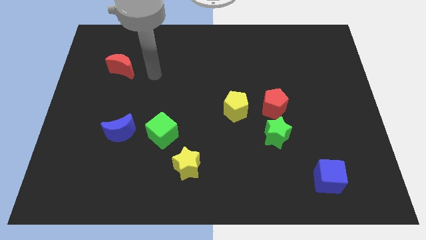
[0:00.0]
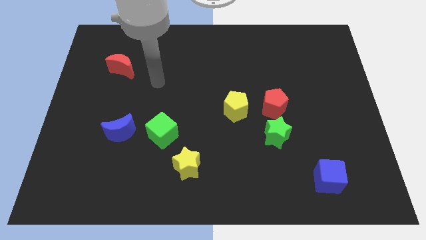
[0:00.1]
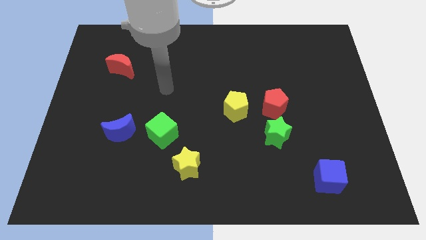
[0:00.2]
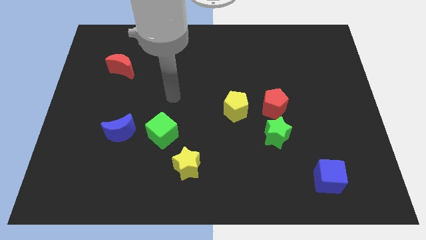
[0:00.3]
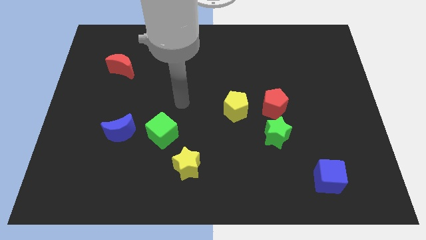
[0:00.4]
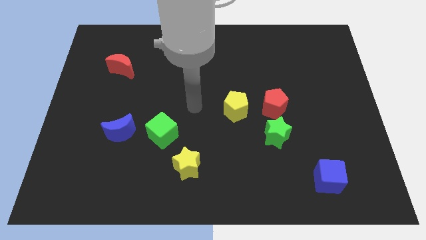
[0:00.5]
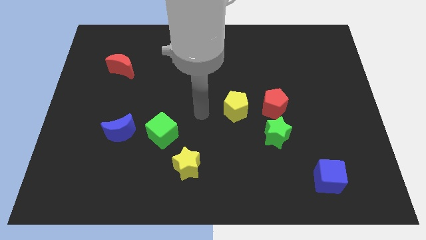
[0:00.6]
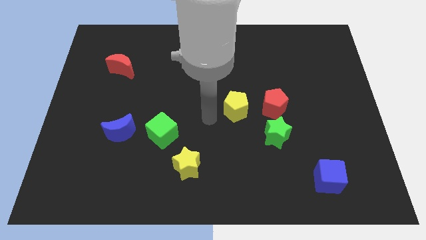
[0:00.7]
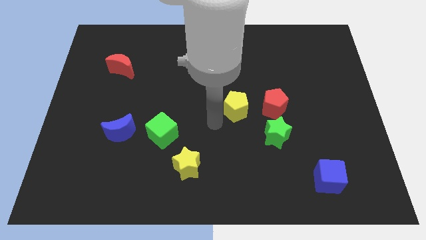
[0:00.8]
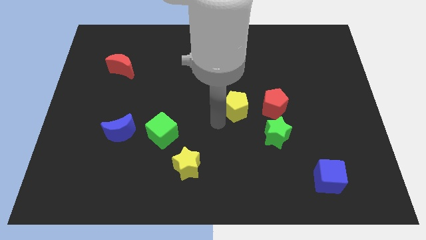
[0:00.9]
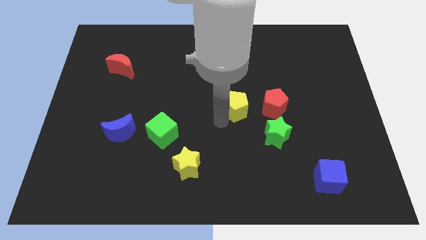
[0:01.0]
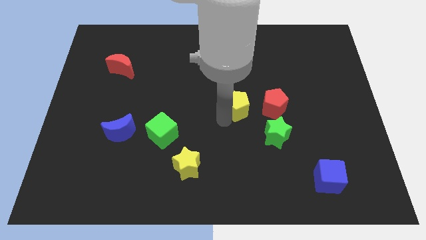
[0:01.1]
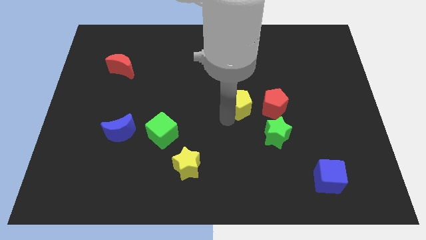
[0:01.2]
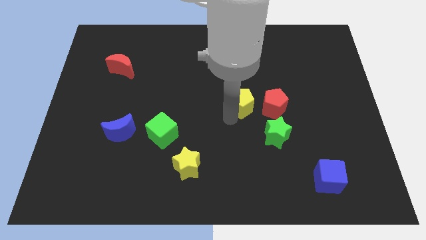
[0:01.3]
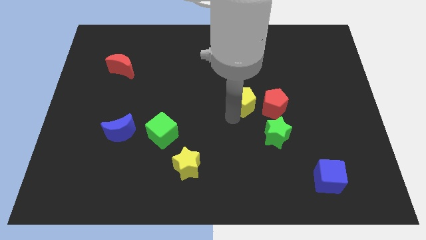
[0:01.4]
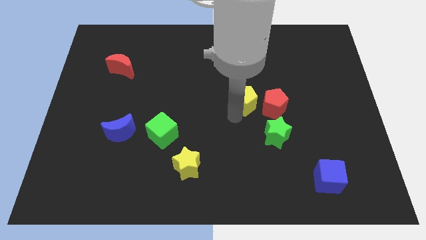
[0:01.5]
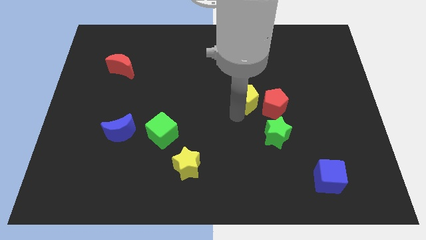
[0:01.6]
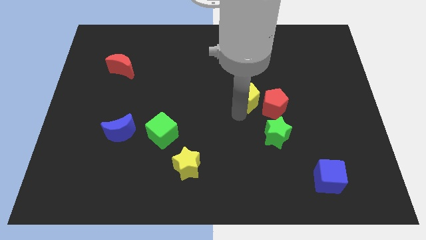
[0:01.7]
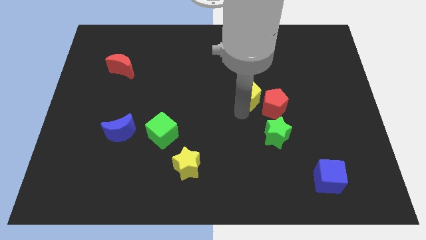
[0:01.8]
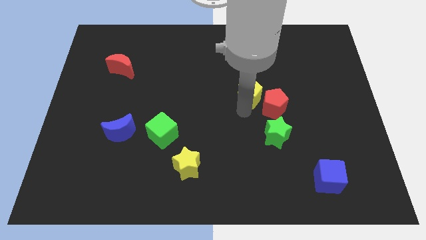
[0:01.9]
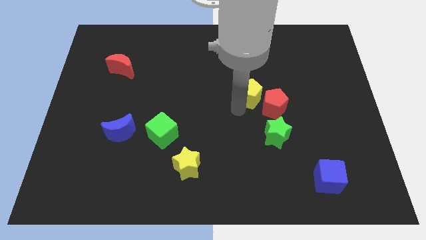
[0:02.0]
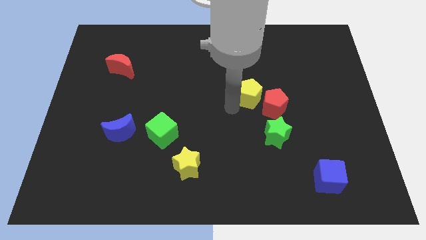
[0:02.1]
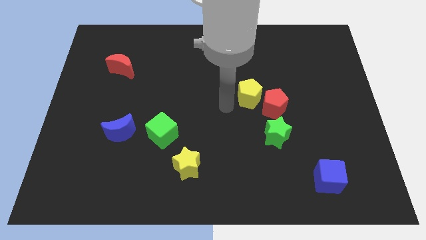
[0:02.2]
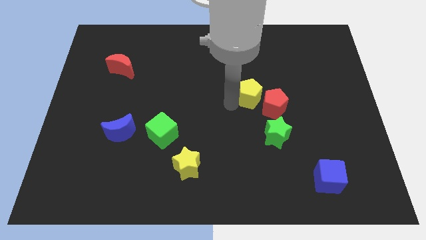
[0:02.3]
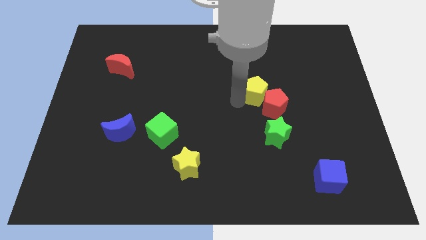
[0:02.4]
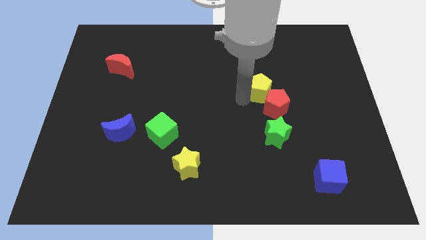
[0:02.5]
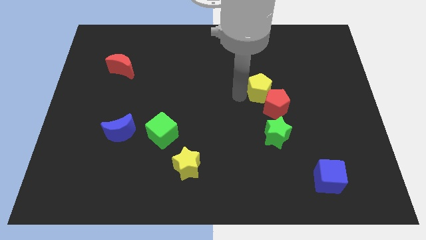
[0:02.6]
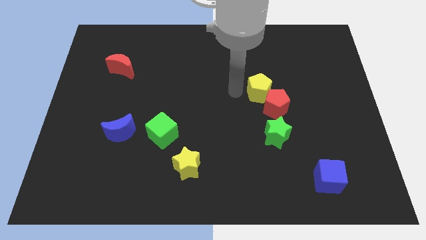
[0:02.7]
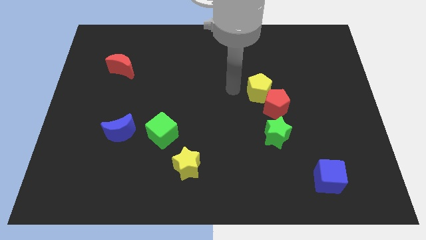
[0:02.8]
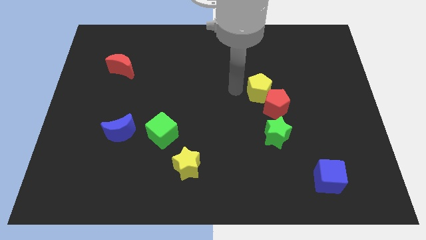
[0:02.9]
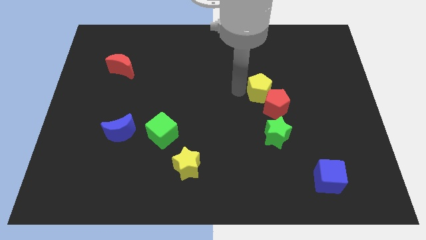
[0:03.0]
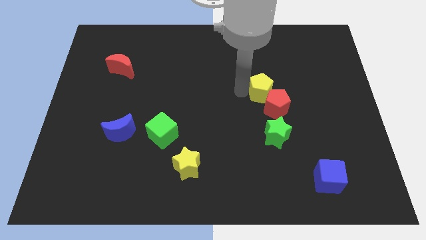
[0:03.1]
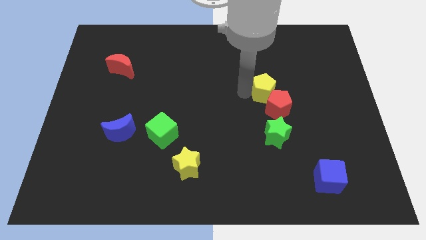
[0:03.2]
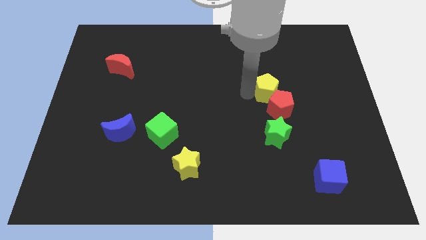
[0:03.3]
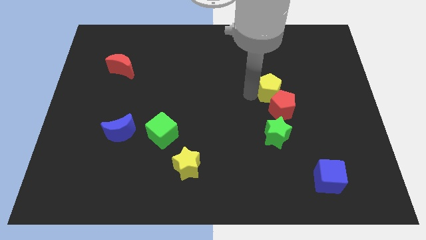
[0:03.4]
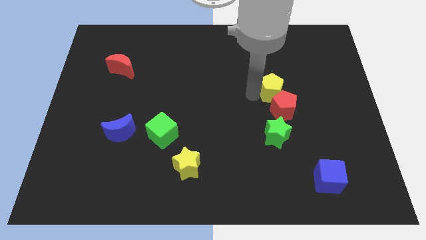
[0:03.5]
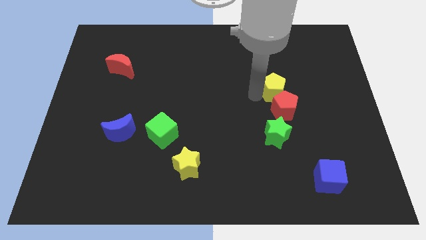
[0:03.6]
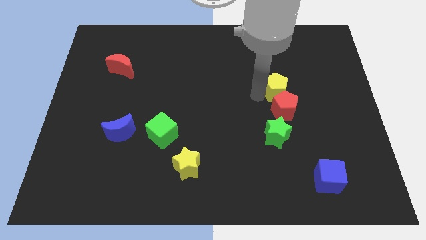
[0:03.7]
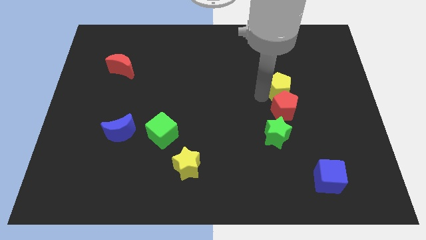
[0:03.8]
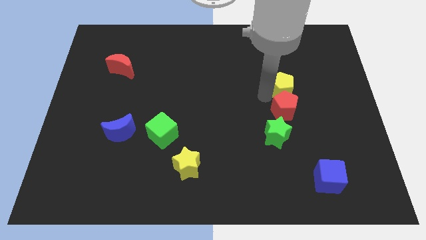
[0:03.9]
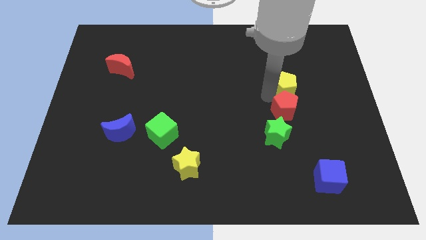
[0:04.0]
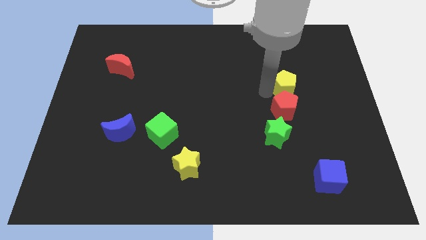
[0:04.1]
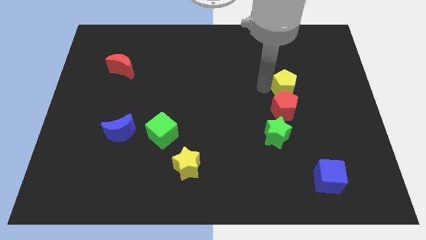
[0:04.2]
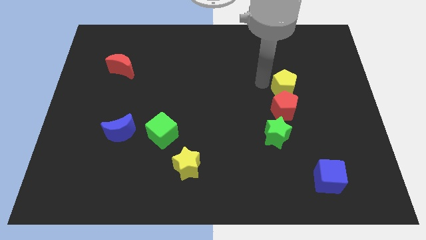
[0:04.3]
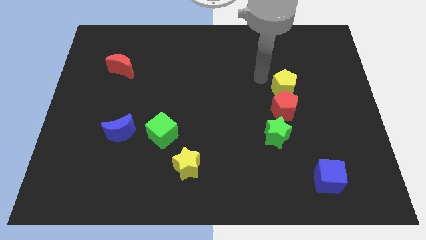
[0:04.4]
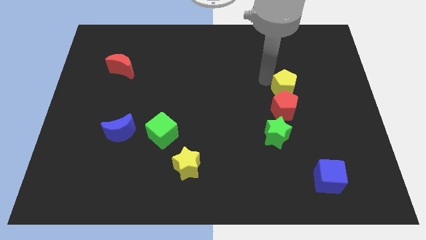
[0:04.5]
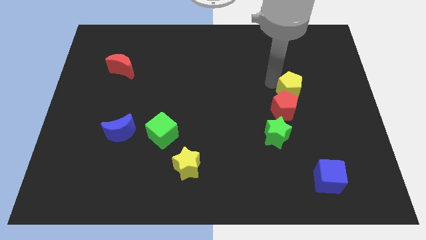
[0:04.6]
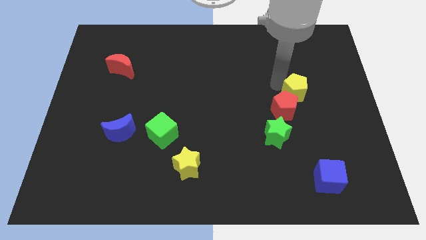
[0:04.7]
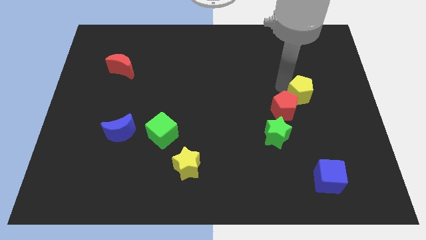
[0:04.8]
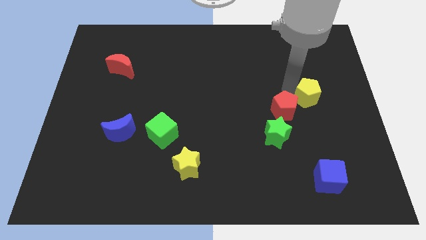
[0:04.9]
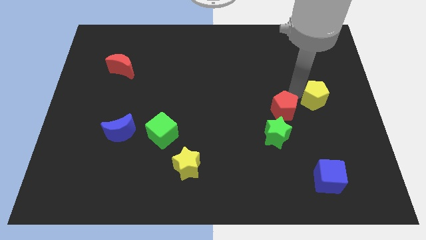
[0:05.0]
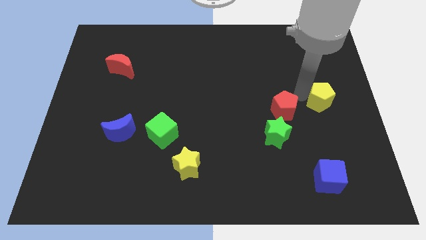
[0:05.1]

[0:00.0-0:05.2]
put the yellow pentagon to the center right
